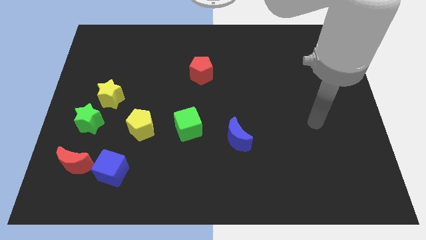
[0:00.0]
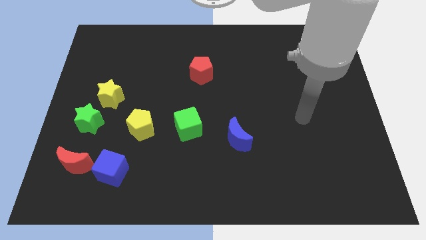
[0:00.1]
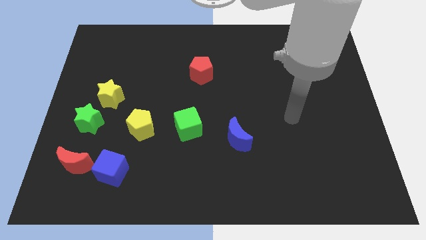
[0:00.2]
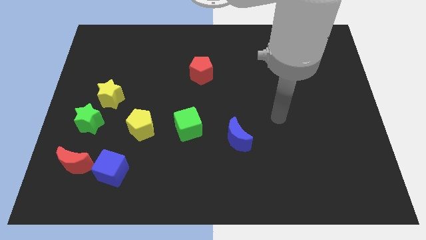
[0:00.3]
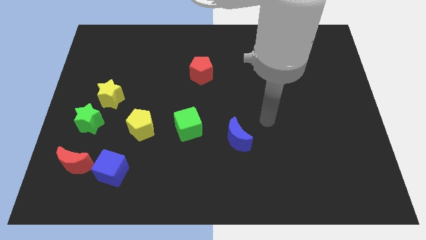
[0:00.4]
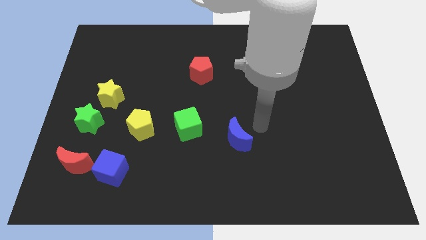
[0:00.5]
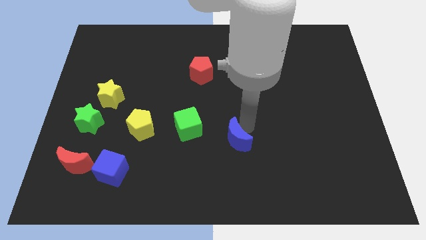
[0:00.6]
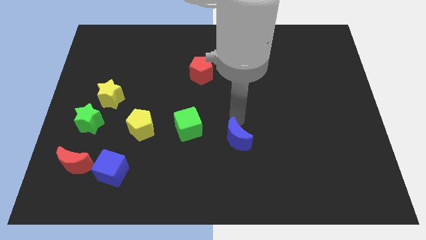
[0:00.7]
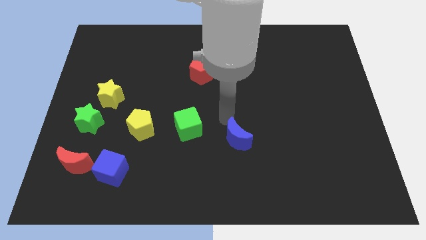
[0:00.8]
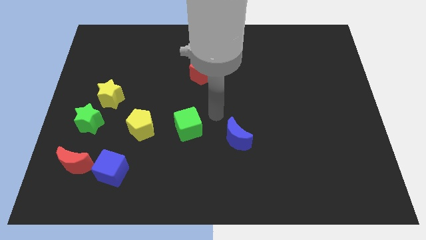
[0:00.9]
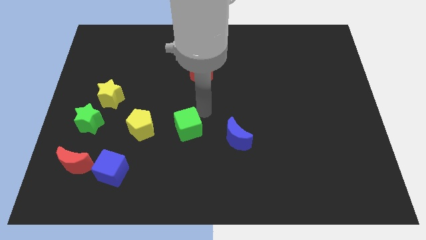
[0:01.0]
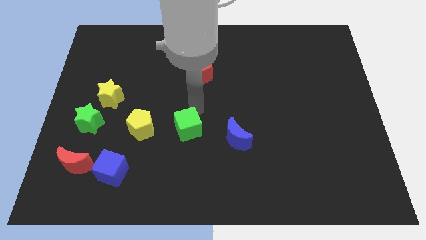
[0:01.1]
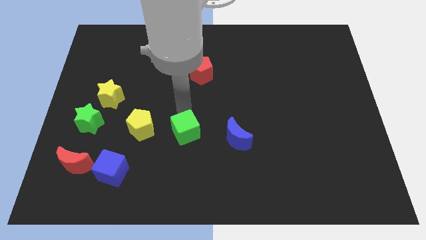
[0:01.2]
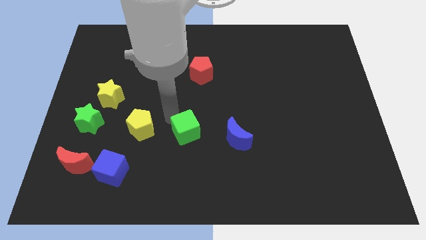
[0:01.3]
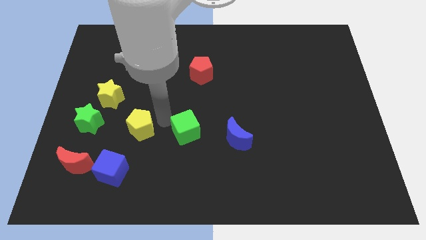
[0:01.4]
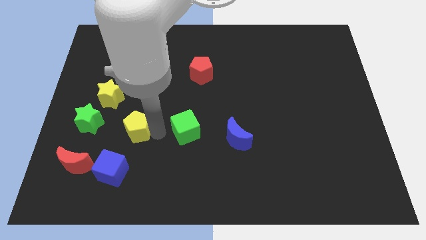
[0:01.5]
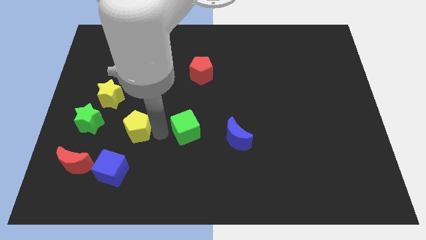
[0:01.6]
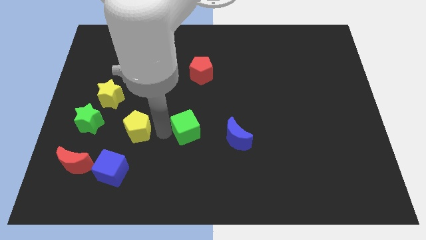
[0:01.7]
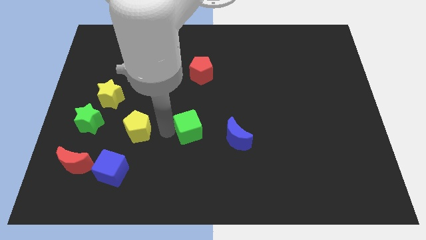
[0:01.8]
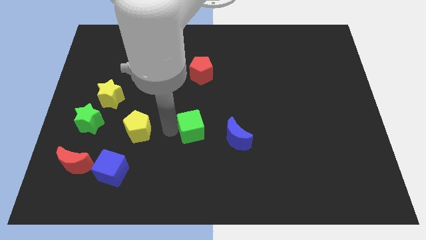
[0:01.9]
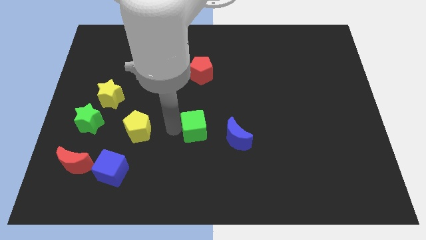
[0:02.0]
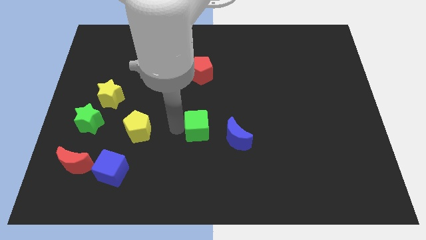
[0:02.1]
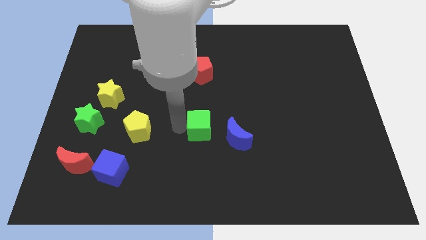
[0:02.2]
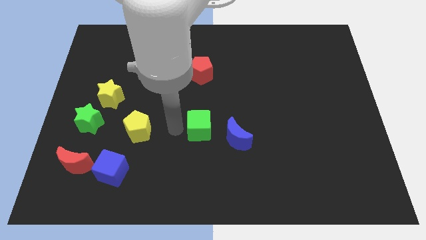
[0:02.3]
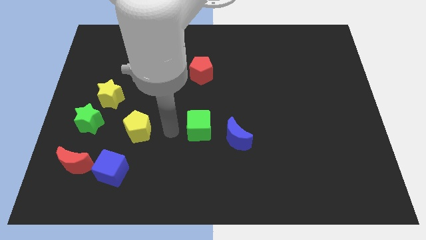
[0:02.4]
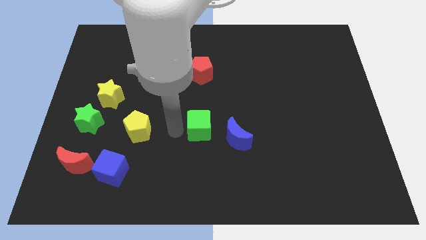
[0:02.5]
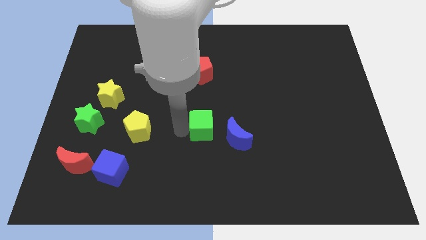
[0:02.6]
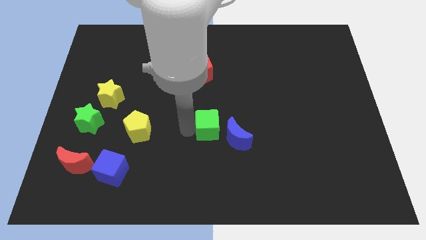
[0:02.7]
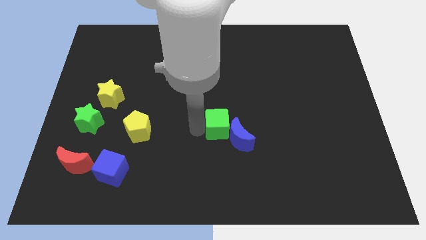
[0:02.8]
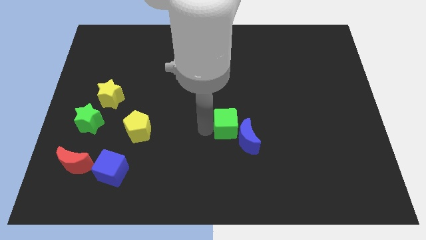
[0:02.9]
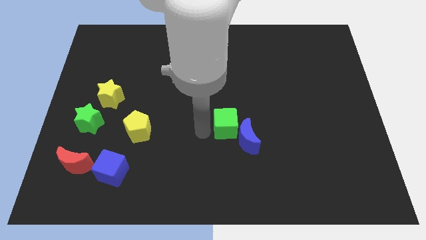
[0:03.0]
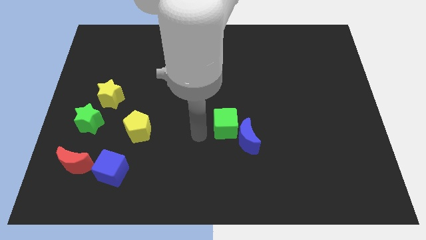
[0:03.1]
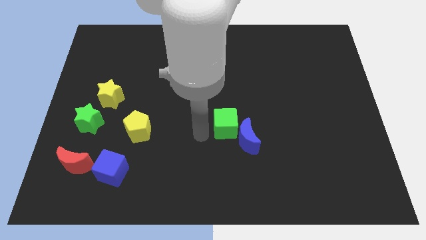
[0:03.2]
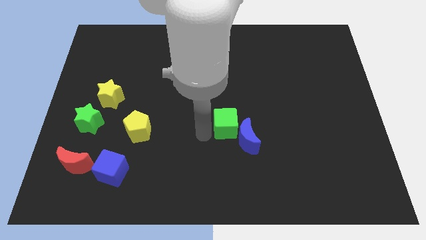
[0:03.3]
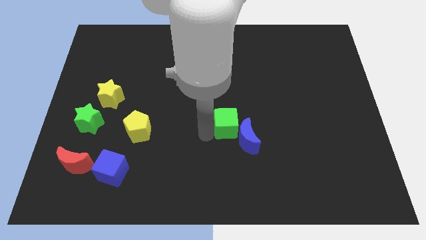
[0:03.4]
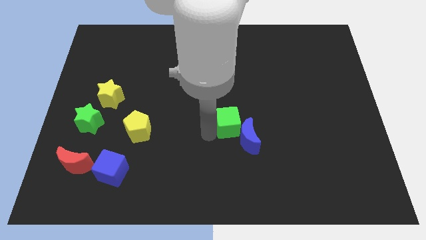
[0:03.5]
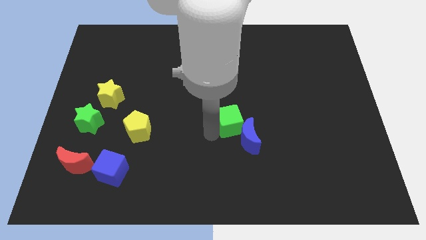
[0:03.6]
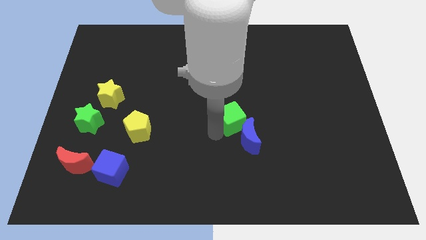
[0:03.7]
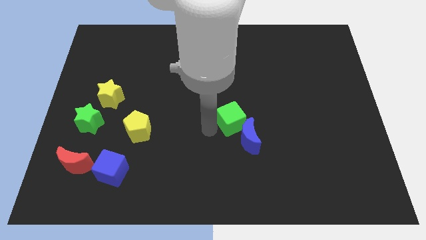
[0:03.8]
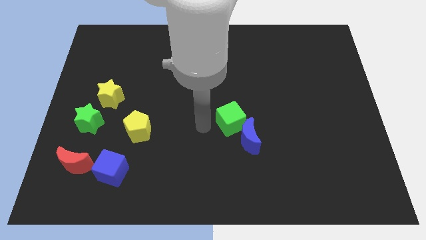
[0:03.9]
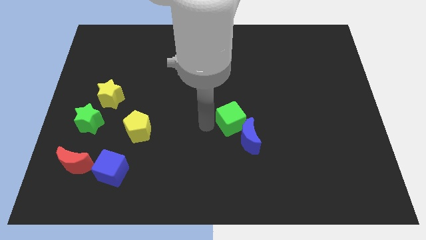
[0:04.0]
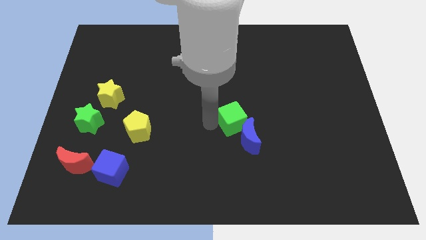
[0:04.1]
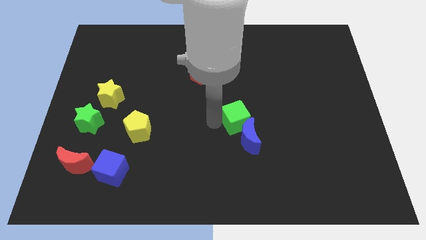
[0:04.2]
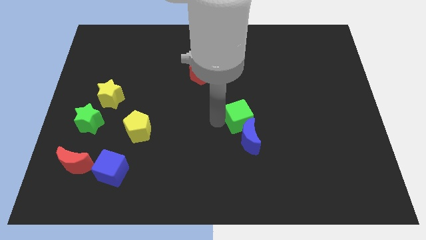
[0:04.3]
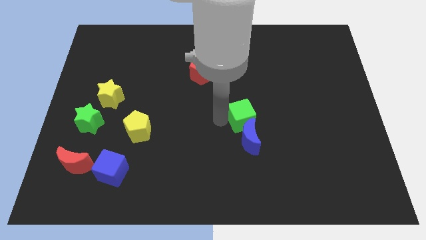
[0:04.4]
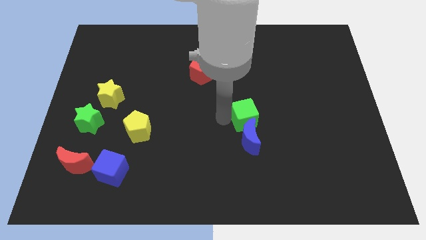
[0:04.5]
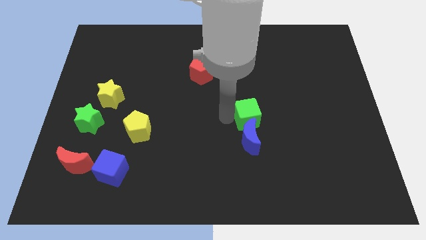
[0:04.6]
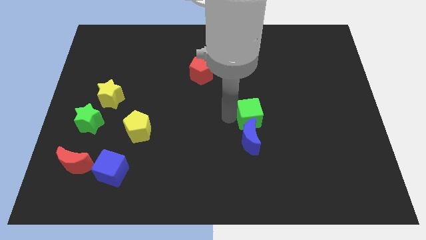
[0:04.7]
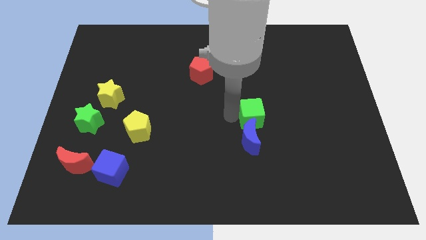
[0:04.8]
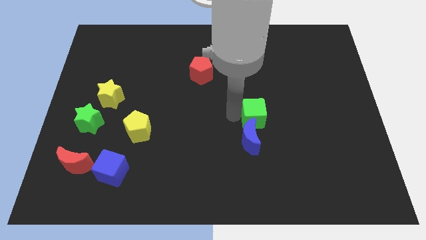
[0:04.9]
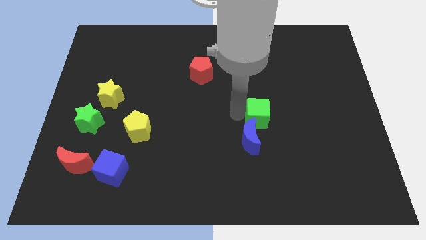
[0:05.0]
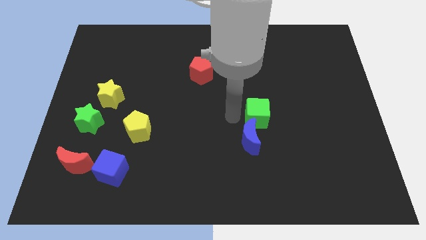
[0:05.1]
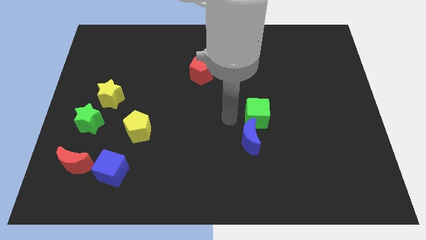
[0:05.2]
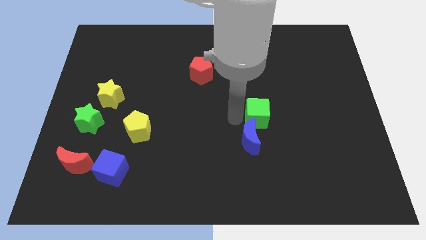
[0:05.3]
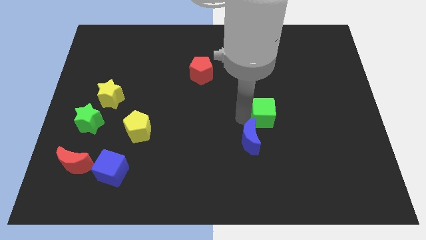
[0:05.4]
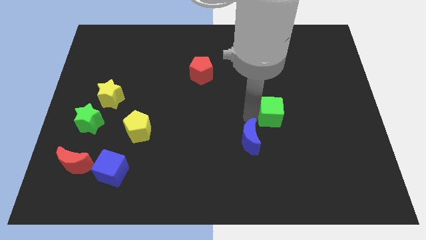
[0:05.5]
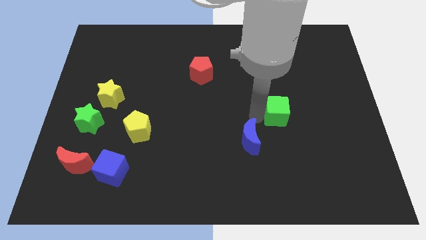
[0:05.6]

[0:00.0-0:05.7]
move the green cube right

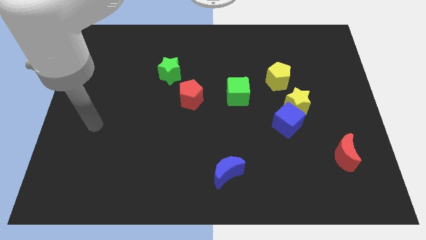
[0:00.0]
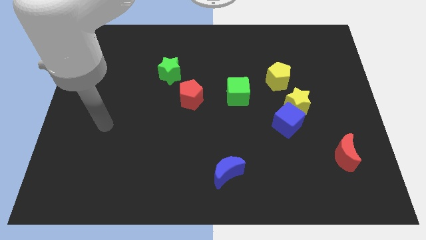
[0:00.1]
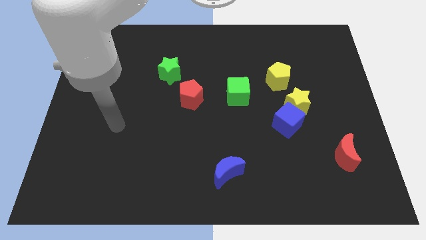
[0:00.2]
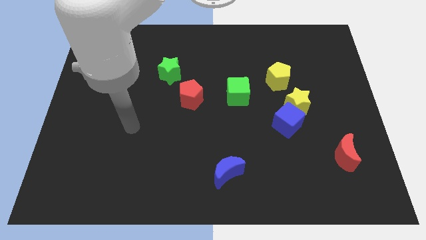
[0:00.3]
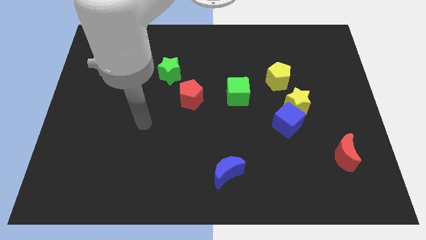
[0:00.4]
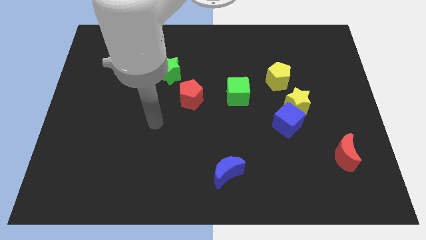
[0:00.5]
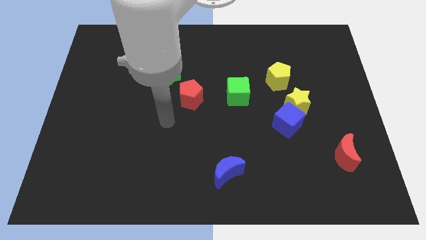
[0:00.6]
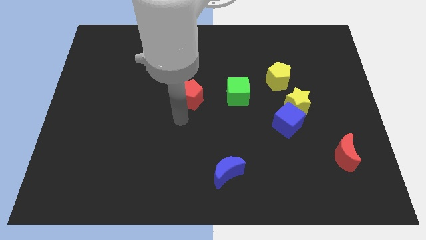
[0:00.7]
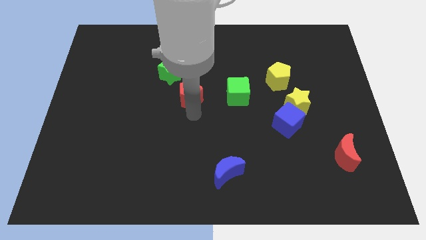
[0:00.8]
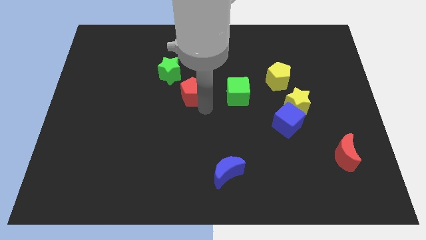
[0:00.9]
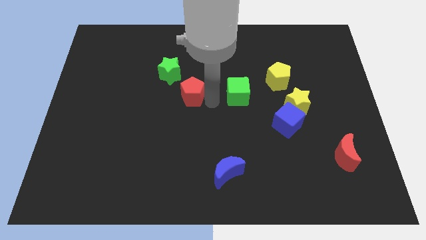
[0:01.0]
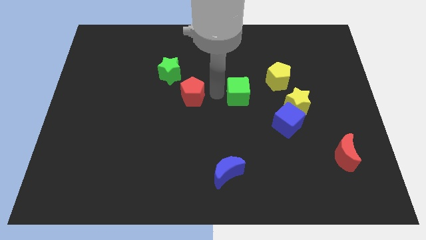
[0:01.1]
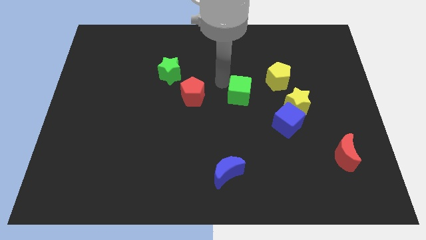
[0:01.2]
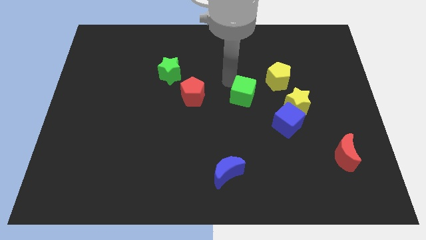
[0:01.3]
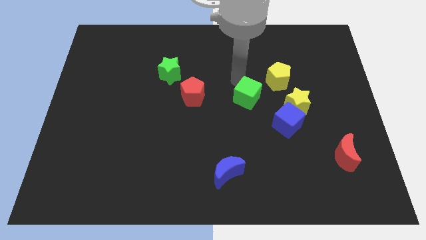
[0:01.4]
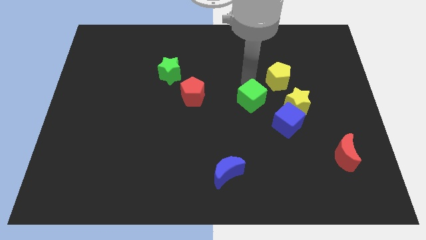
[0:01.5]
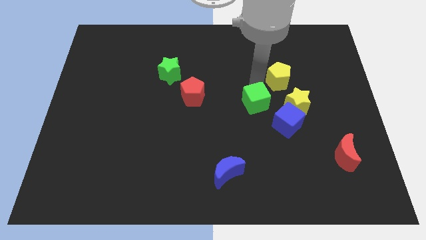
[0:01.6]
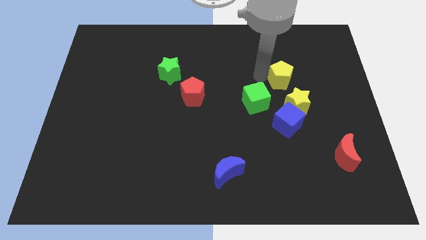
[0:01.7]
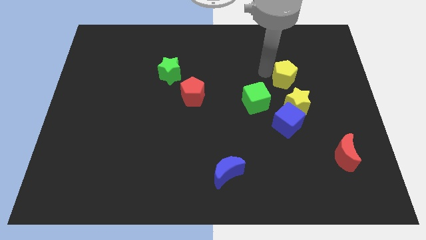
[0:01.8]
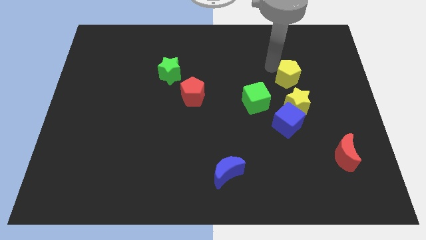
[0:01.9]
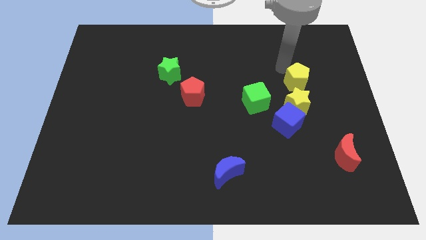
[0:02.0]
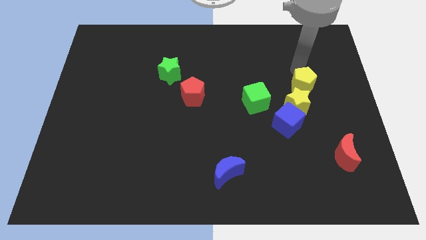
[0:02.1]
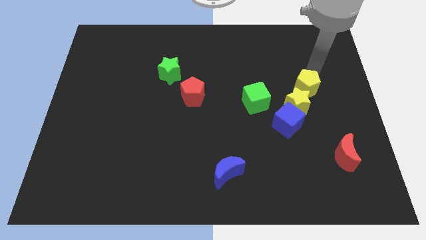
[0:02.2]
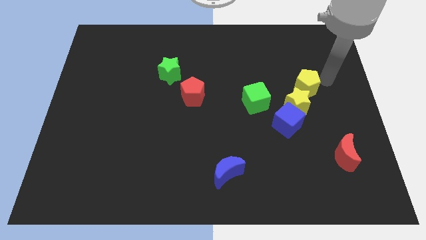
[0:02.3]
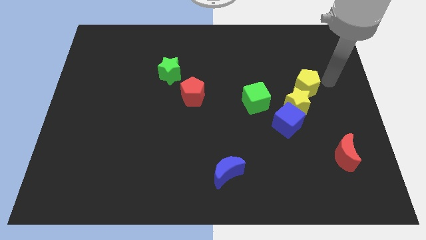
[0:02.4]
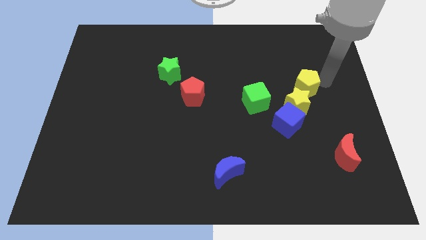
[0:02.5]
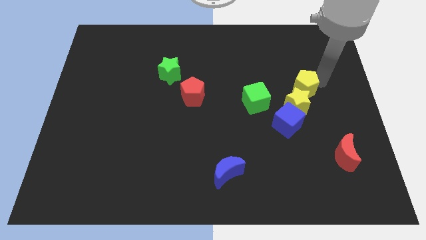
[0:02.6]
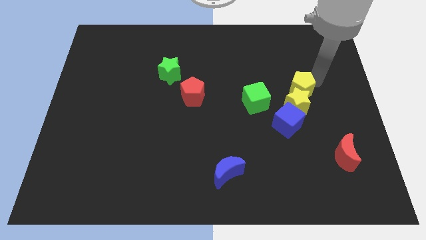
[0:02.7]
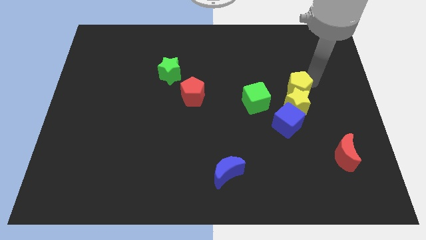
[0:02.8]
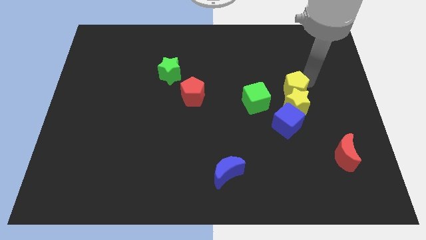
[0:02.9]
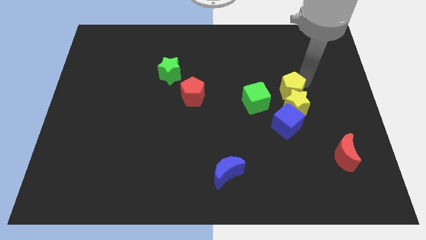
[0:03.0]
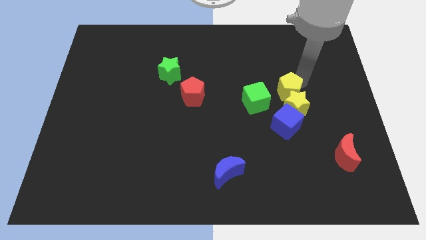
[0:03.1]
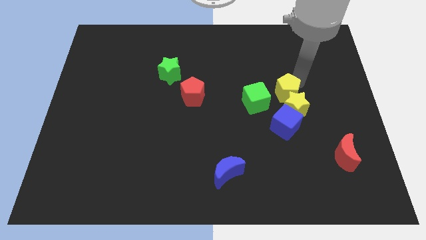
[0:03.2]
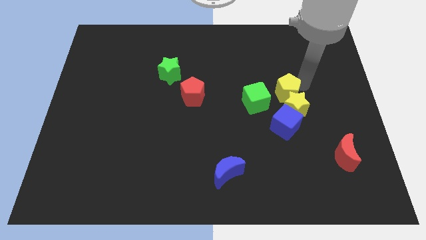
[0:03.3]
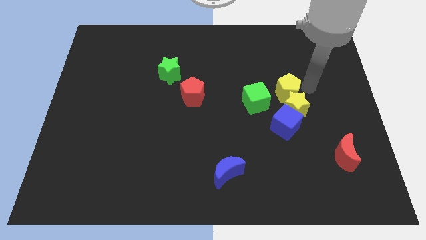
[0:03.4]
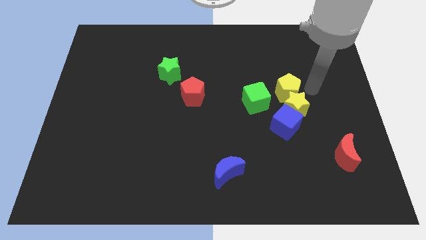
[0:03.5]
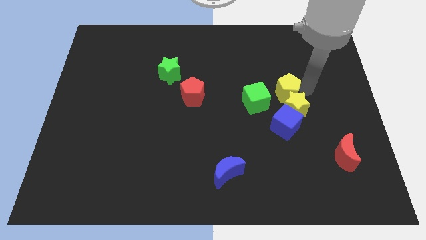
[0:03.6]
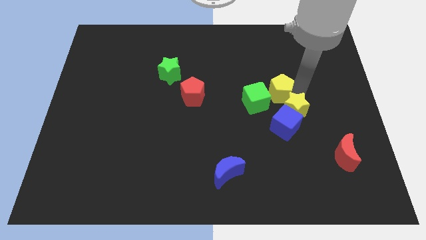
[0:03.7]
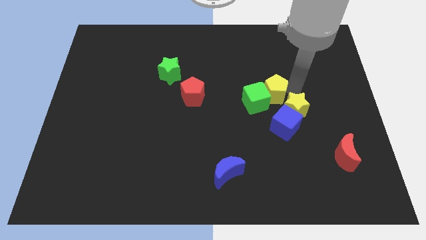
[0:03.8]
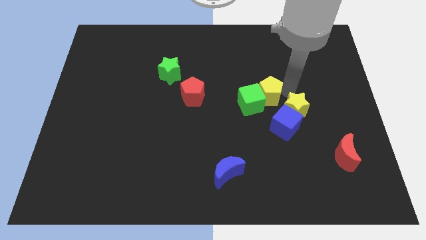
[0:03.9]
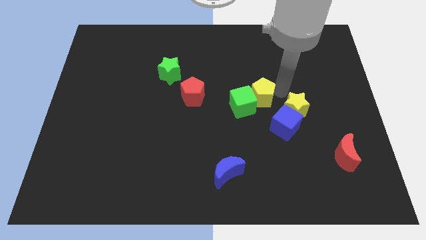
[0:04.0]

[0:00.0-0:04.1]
move the yellow pentagon a little bit diagonally downwards and to the left
